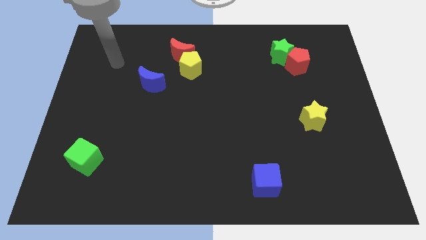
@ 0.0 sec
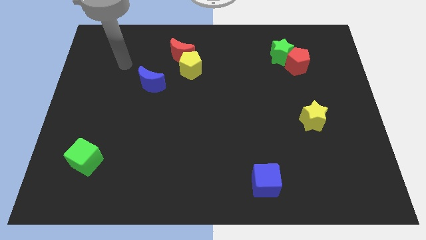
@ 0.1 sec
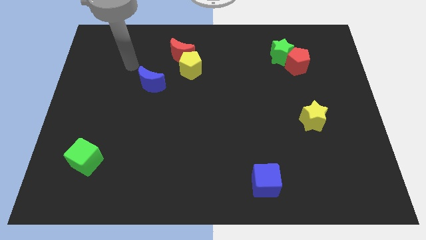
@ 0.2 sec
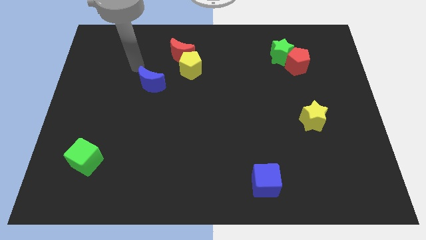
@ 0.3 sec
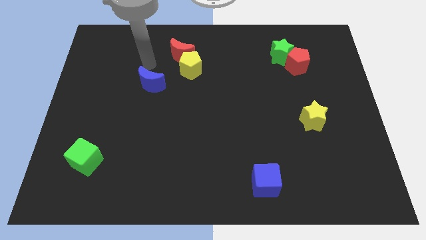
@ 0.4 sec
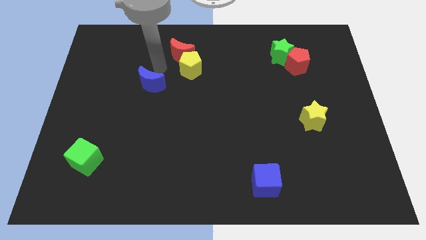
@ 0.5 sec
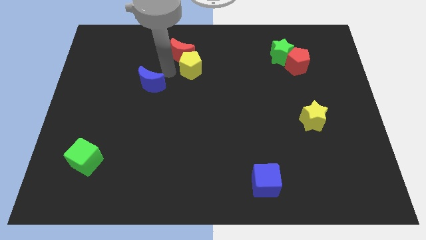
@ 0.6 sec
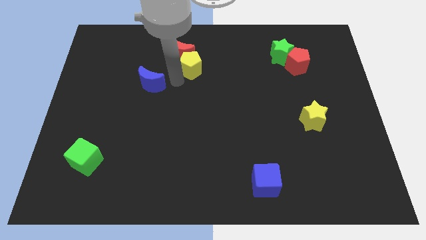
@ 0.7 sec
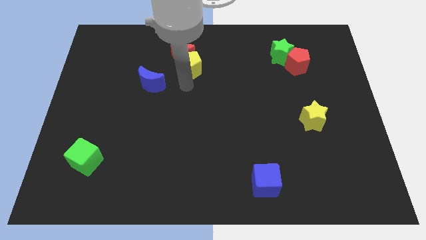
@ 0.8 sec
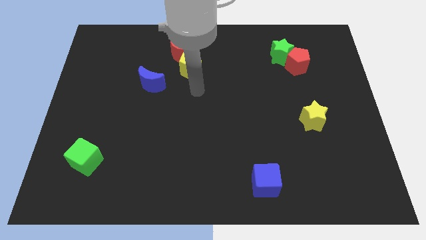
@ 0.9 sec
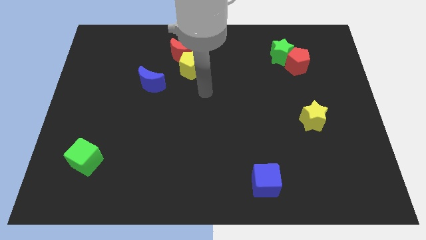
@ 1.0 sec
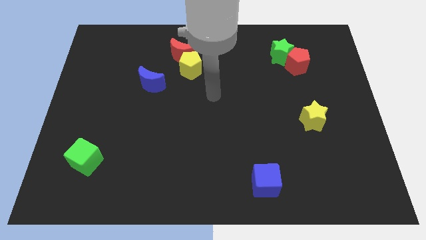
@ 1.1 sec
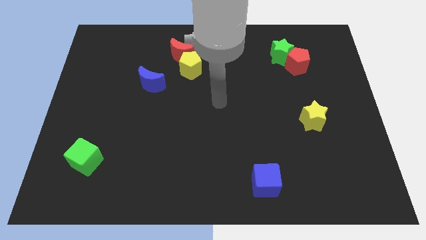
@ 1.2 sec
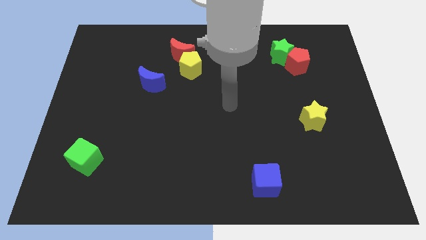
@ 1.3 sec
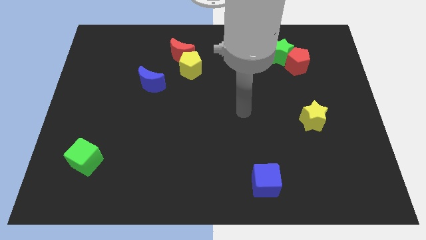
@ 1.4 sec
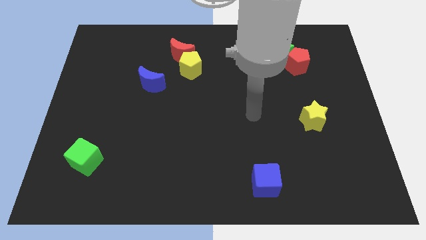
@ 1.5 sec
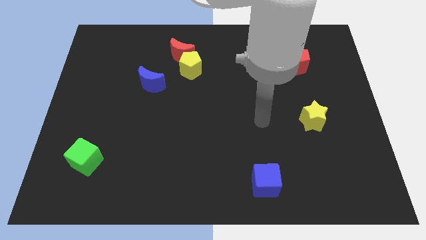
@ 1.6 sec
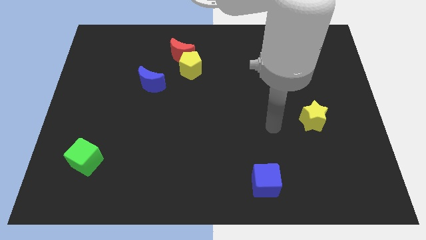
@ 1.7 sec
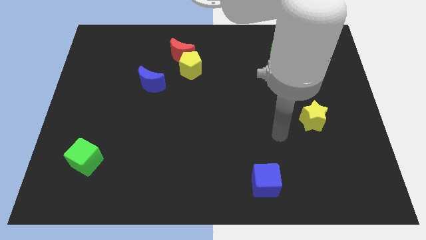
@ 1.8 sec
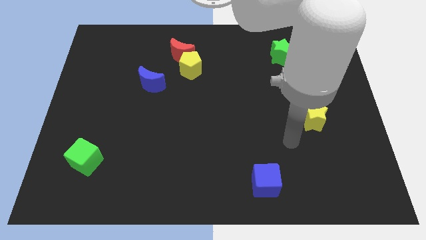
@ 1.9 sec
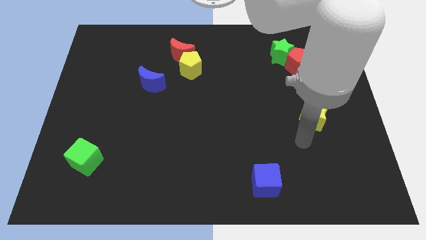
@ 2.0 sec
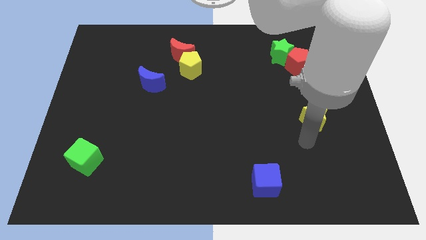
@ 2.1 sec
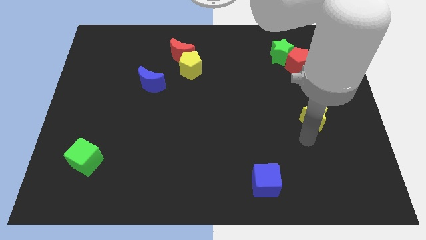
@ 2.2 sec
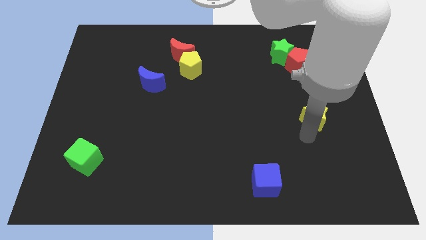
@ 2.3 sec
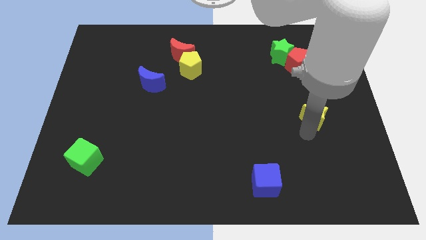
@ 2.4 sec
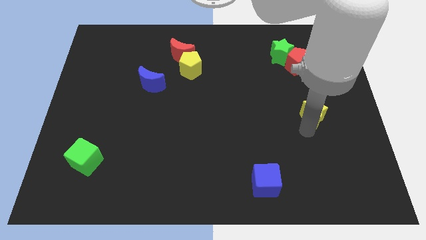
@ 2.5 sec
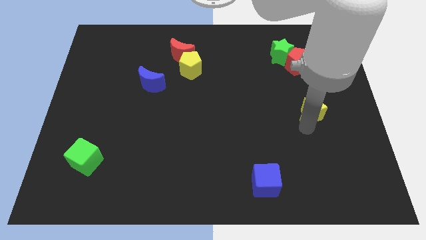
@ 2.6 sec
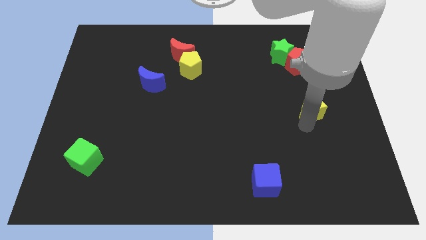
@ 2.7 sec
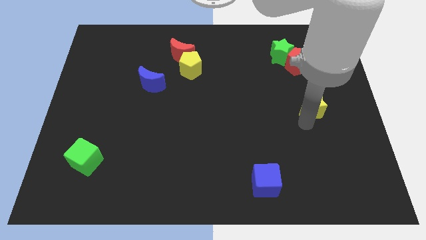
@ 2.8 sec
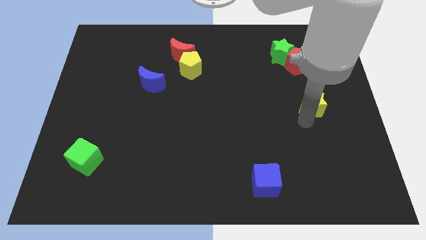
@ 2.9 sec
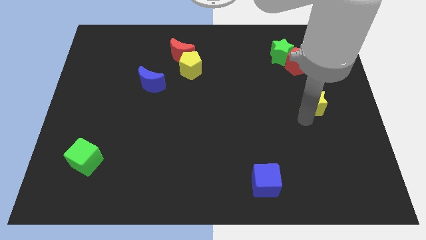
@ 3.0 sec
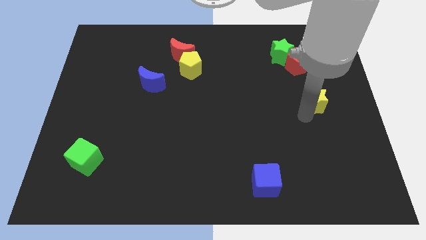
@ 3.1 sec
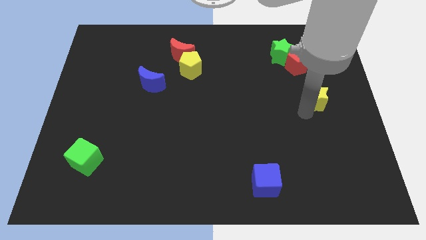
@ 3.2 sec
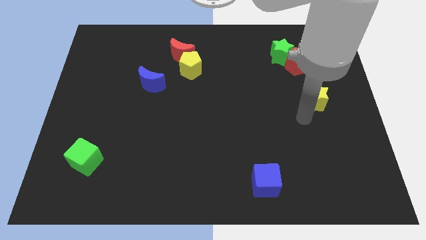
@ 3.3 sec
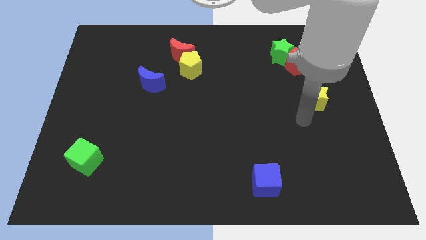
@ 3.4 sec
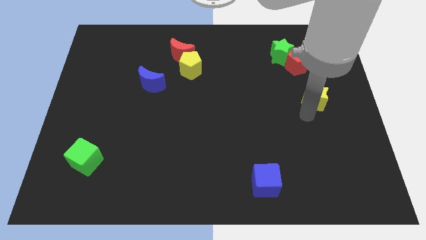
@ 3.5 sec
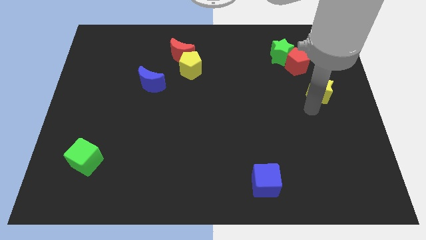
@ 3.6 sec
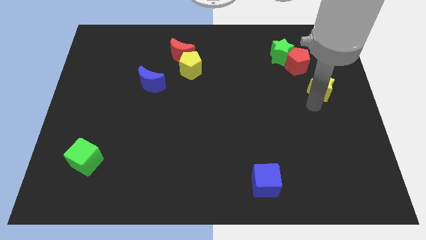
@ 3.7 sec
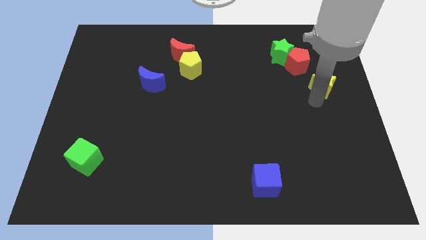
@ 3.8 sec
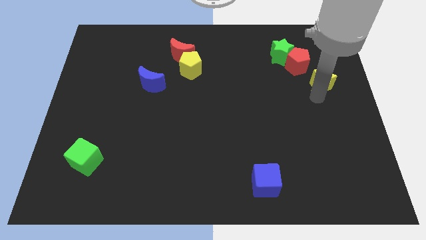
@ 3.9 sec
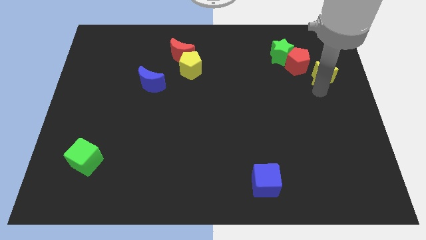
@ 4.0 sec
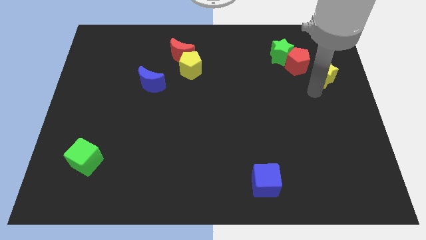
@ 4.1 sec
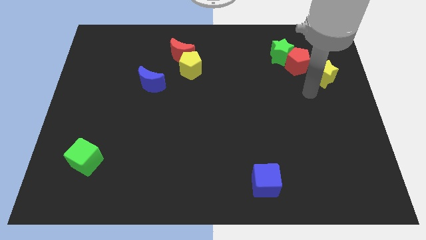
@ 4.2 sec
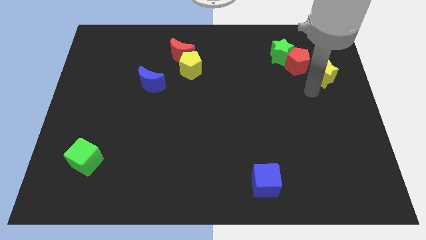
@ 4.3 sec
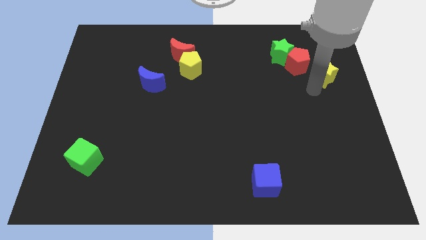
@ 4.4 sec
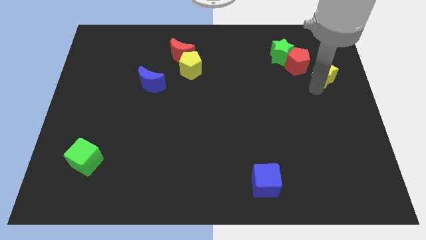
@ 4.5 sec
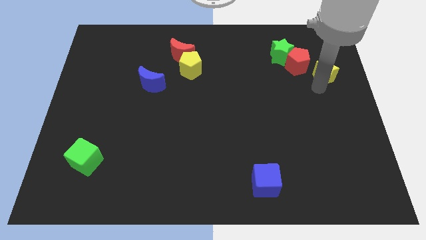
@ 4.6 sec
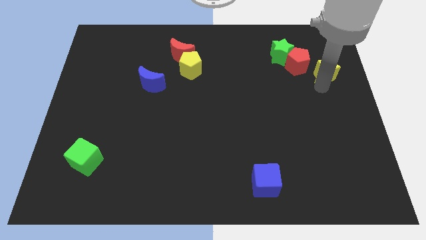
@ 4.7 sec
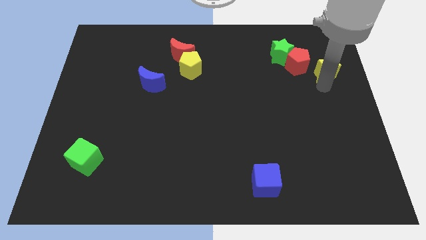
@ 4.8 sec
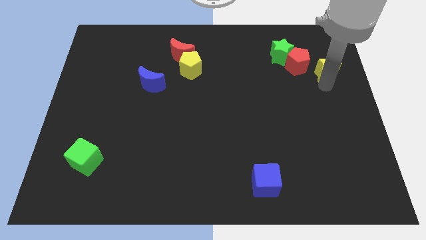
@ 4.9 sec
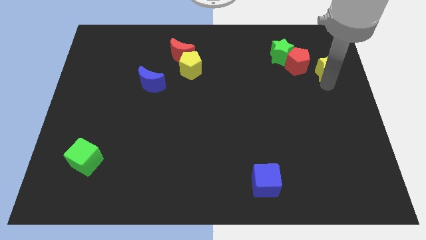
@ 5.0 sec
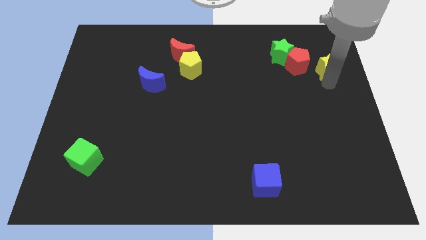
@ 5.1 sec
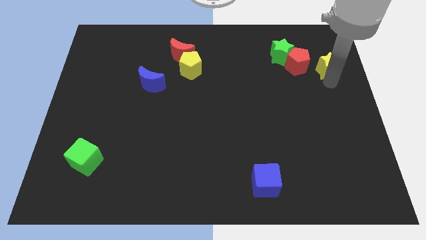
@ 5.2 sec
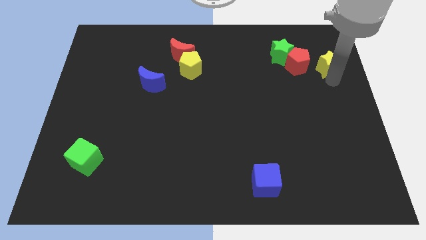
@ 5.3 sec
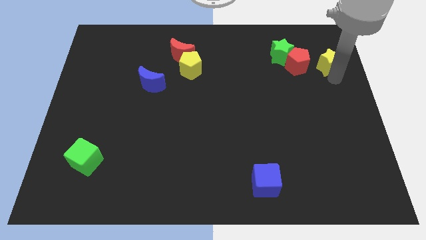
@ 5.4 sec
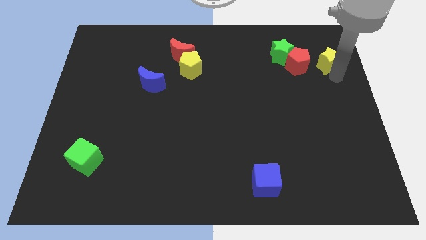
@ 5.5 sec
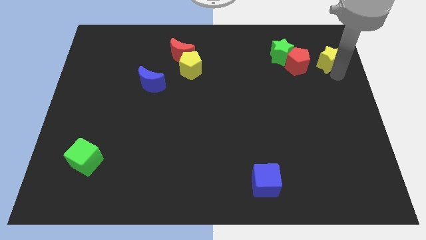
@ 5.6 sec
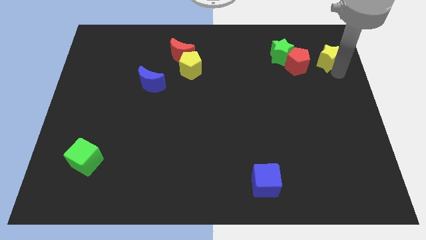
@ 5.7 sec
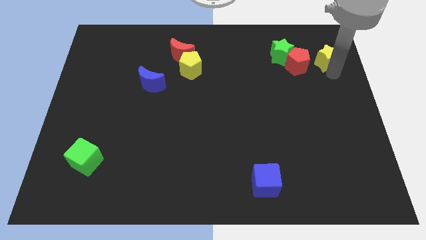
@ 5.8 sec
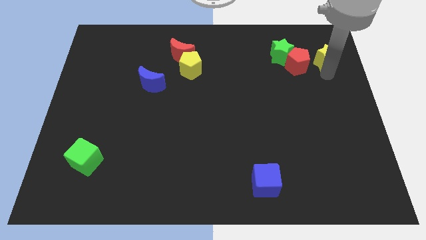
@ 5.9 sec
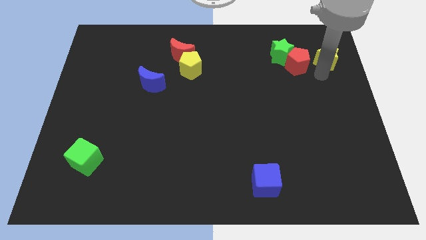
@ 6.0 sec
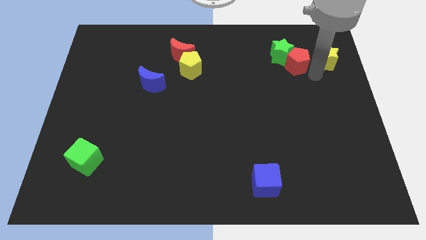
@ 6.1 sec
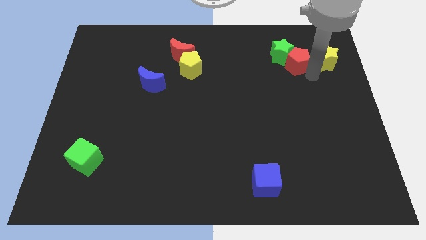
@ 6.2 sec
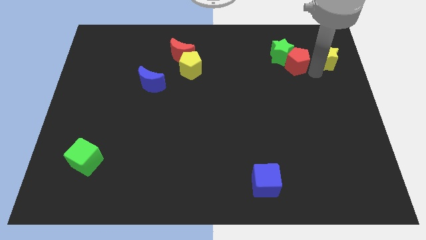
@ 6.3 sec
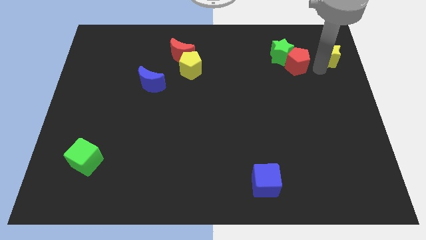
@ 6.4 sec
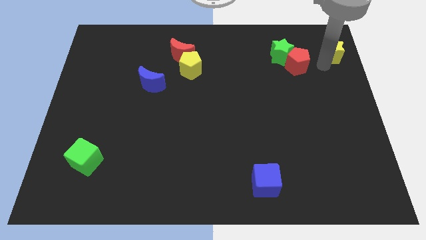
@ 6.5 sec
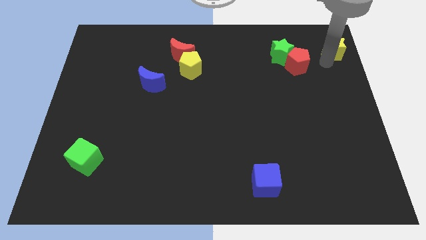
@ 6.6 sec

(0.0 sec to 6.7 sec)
put the yellow star to the top right of the board
